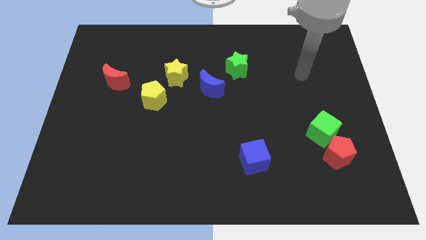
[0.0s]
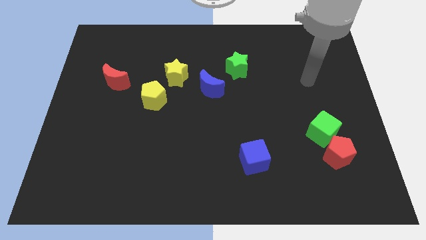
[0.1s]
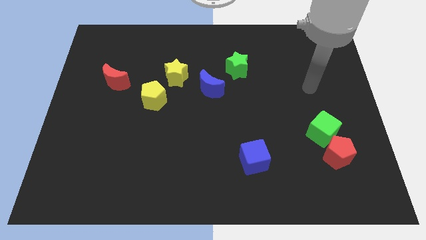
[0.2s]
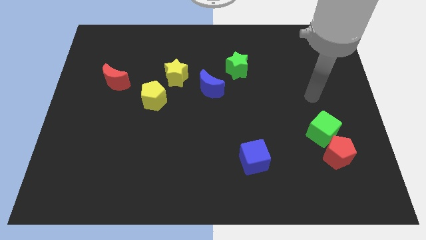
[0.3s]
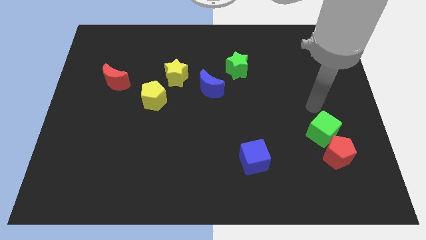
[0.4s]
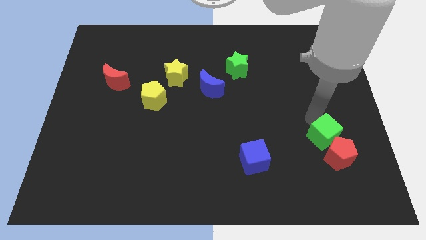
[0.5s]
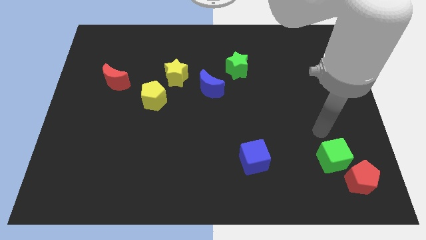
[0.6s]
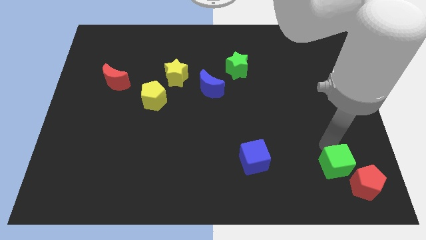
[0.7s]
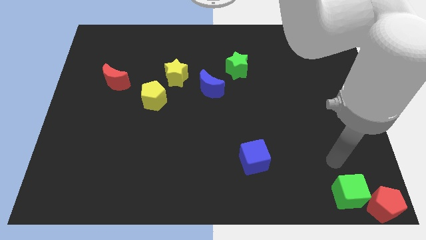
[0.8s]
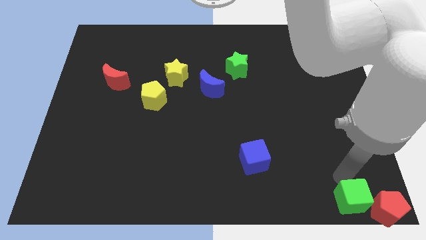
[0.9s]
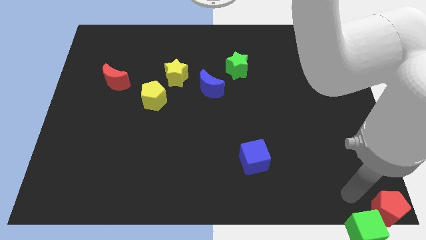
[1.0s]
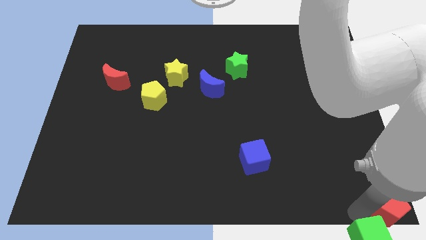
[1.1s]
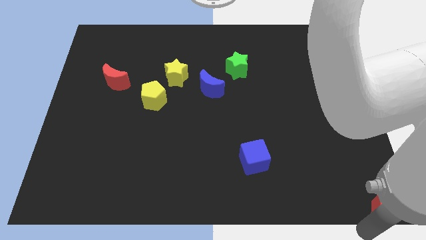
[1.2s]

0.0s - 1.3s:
move the red pentagon away from the green cube

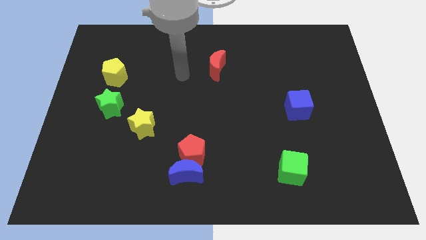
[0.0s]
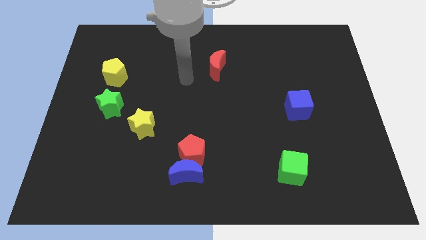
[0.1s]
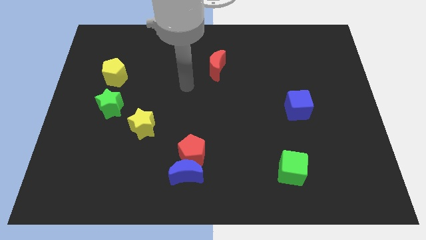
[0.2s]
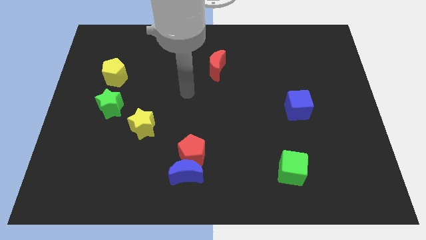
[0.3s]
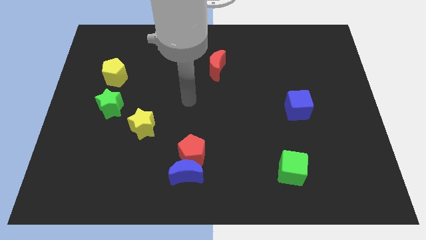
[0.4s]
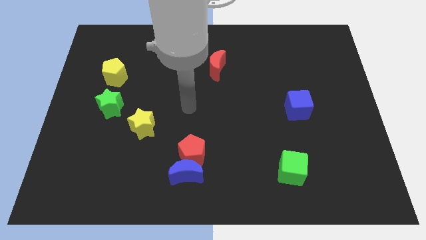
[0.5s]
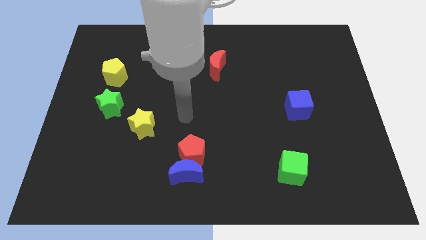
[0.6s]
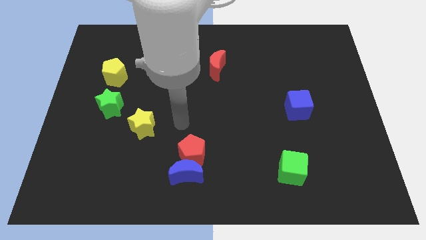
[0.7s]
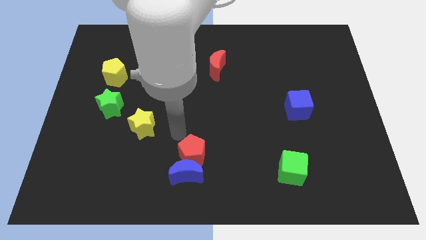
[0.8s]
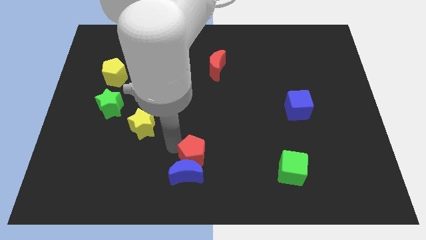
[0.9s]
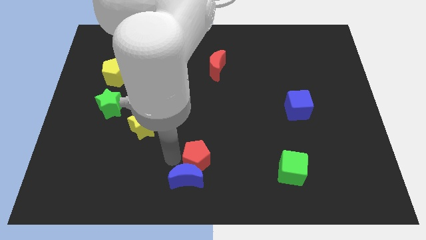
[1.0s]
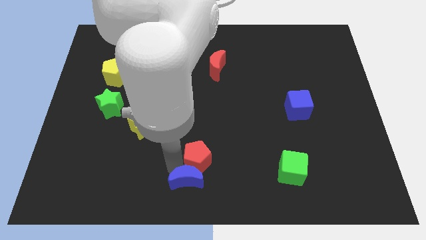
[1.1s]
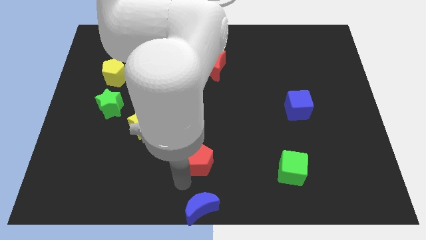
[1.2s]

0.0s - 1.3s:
pull the red pentagon apart from the blue moon

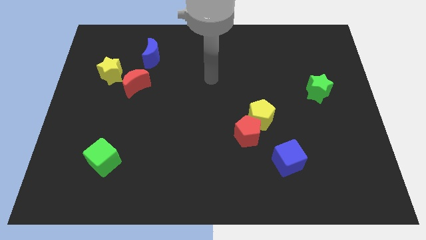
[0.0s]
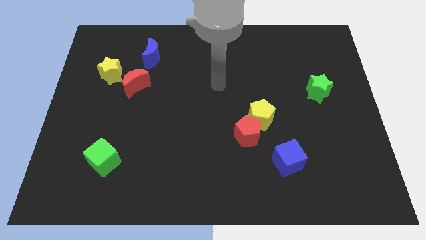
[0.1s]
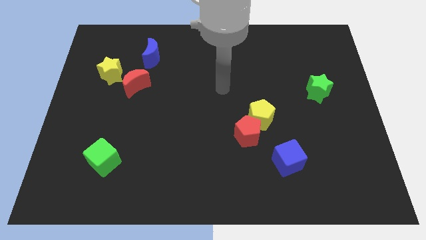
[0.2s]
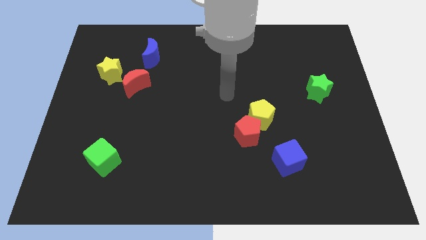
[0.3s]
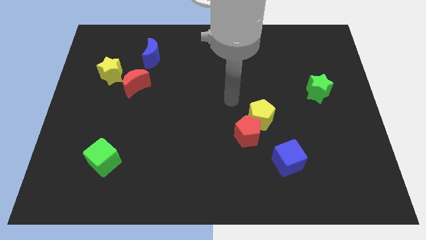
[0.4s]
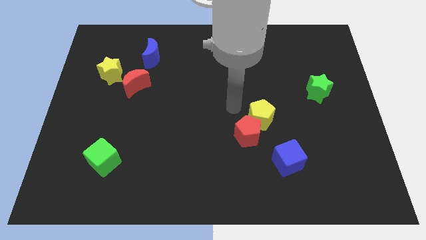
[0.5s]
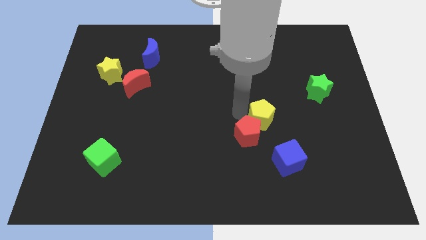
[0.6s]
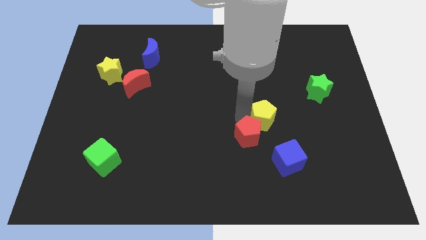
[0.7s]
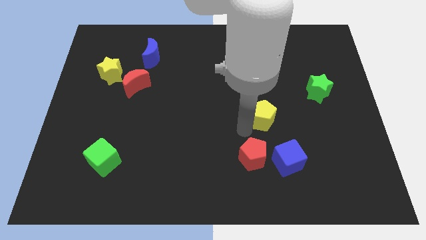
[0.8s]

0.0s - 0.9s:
pull the yellow pentagon apart from the red pentagon

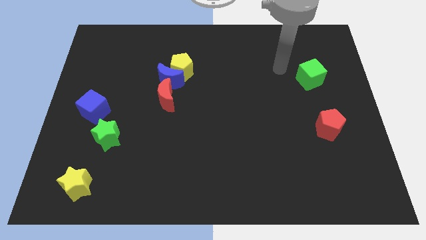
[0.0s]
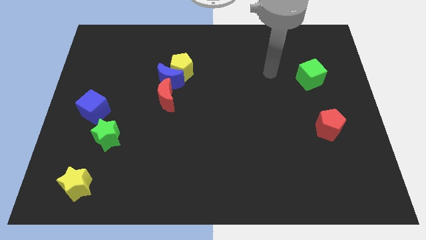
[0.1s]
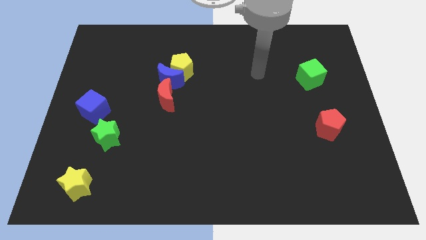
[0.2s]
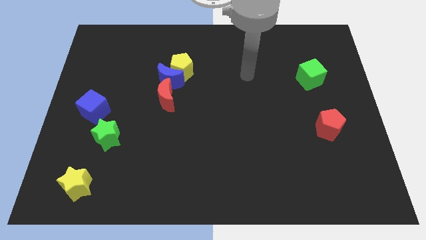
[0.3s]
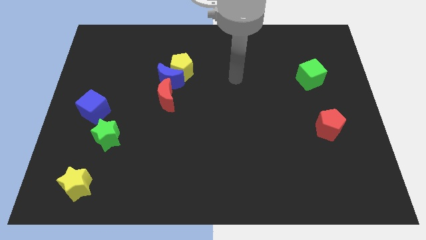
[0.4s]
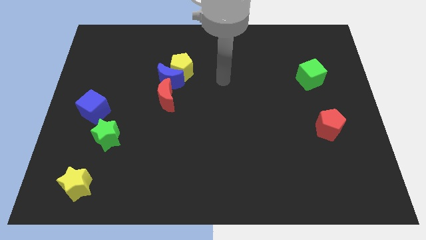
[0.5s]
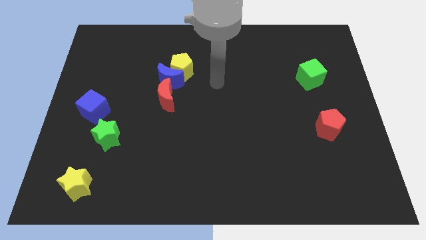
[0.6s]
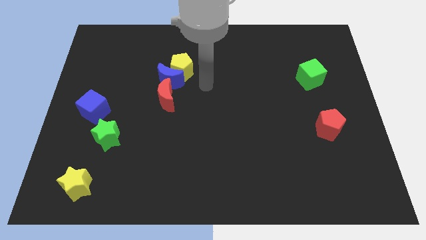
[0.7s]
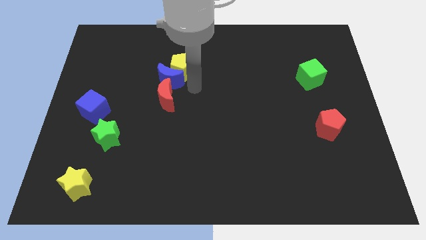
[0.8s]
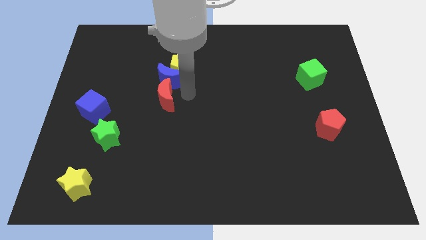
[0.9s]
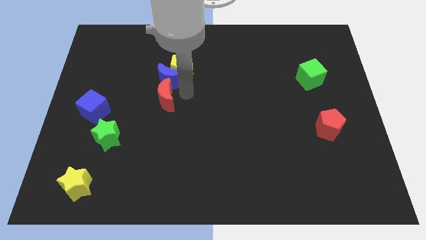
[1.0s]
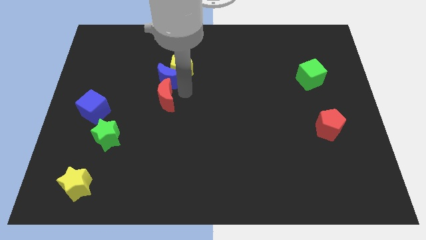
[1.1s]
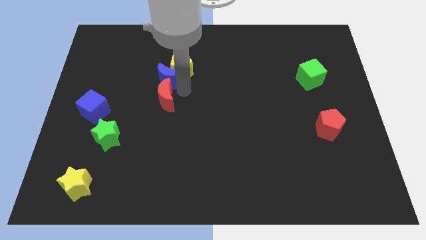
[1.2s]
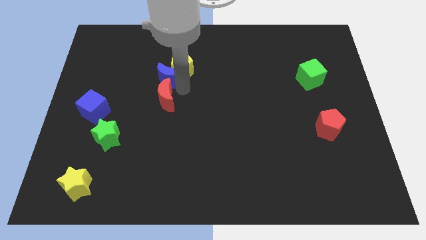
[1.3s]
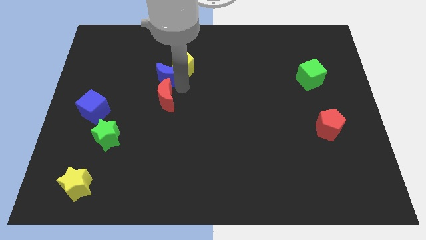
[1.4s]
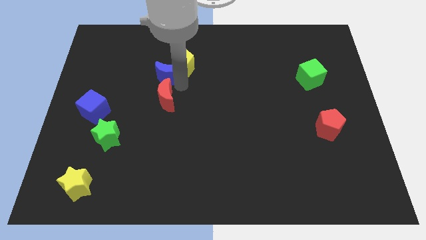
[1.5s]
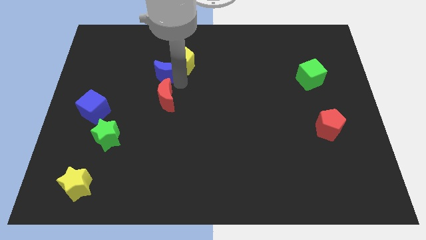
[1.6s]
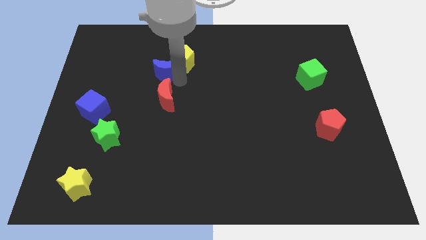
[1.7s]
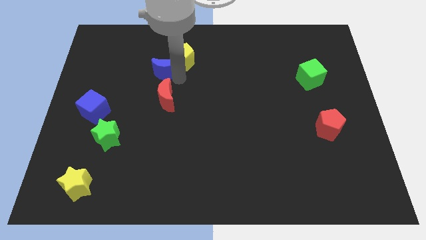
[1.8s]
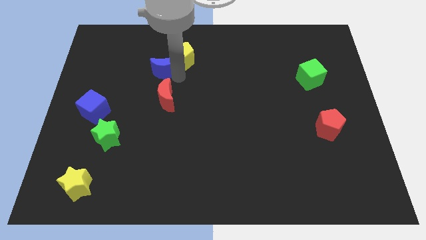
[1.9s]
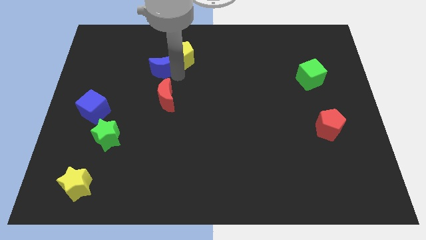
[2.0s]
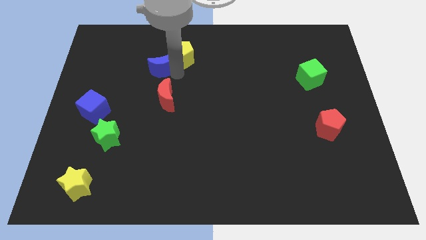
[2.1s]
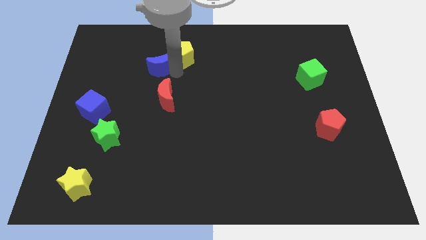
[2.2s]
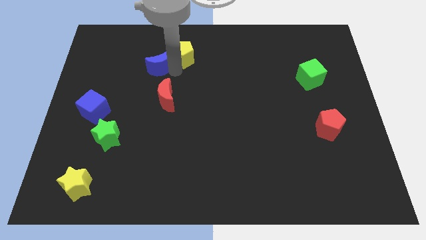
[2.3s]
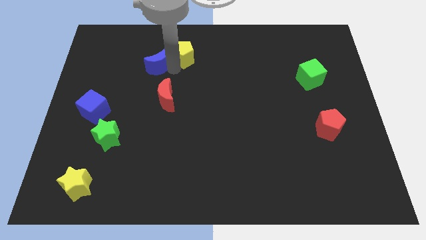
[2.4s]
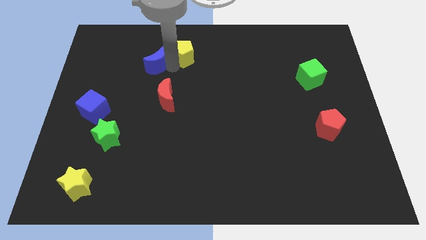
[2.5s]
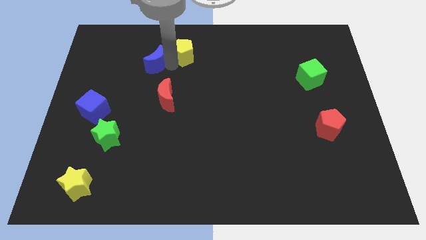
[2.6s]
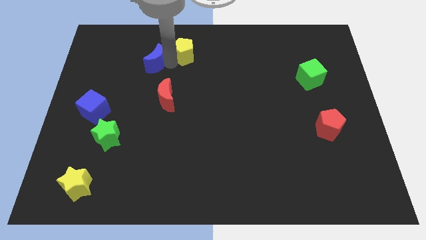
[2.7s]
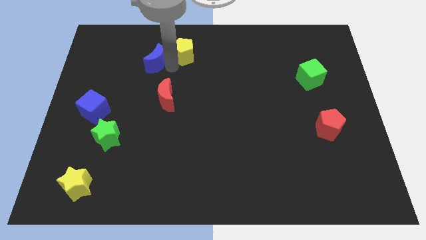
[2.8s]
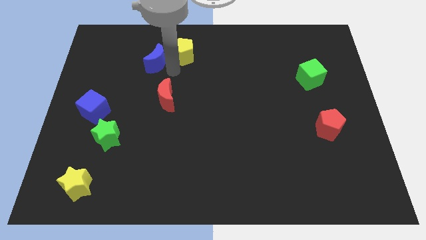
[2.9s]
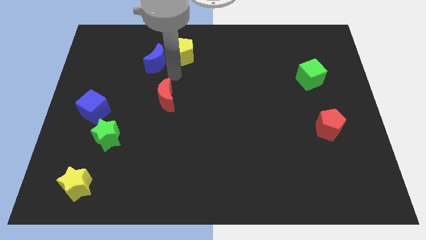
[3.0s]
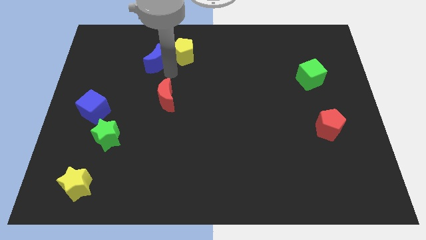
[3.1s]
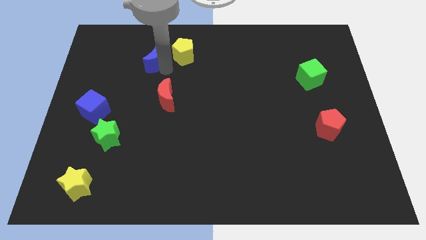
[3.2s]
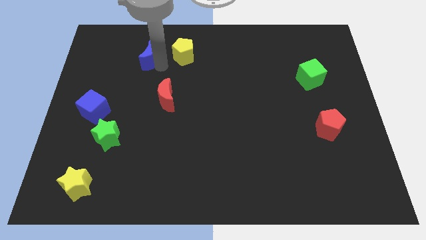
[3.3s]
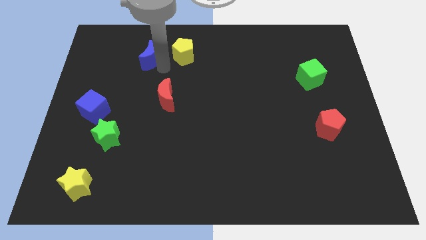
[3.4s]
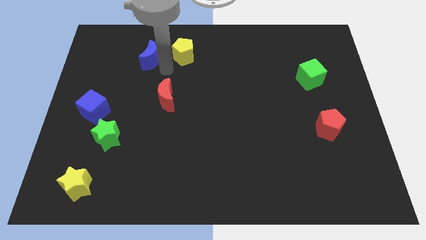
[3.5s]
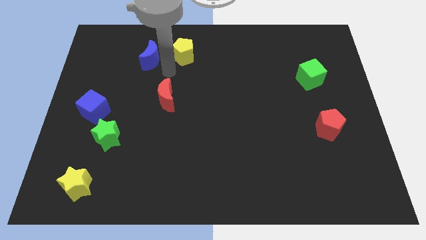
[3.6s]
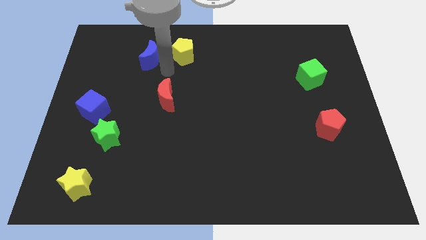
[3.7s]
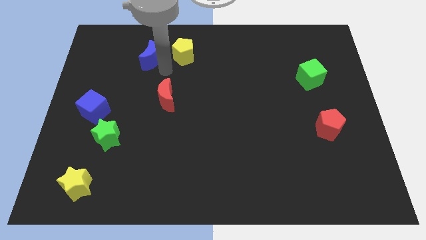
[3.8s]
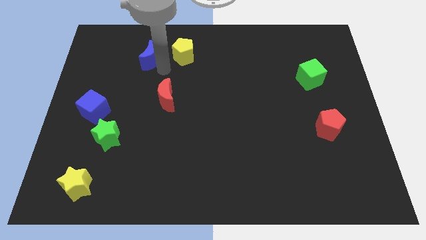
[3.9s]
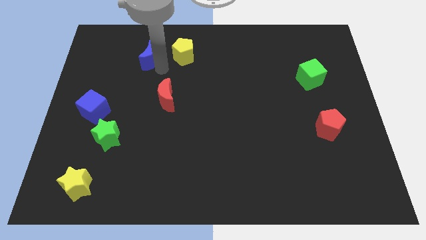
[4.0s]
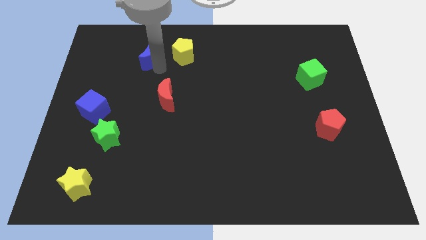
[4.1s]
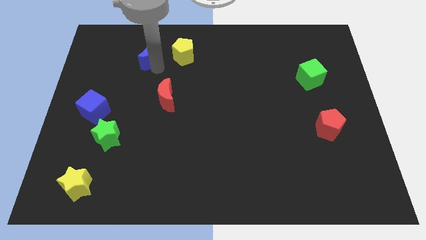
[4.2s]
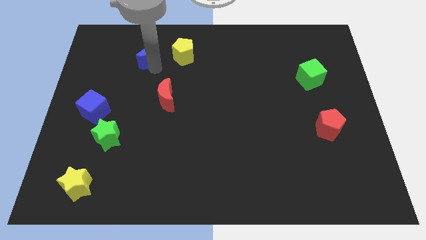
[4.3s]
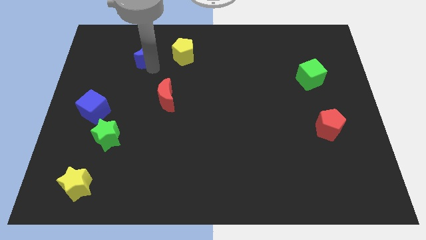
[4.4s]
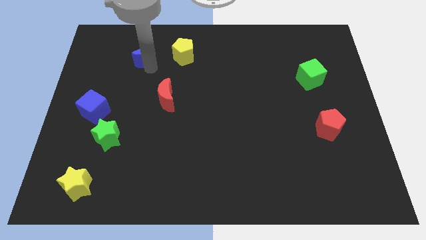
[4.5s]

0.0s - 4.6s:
move the blue moon away from the yellow pentagon and red moon

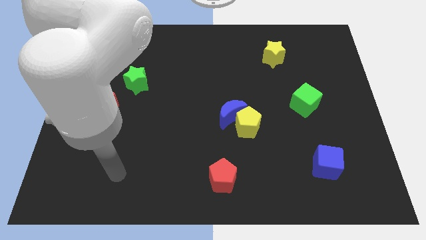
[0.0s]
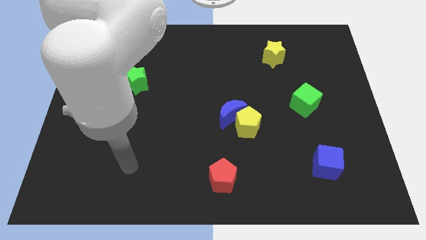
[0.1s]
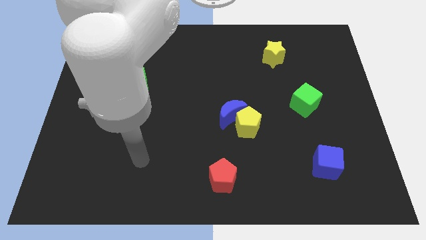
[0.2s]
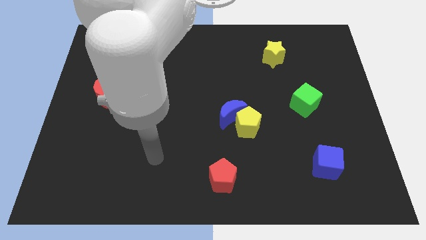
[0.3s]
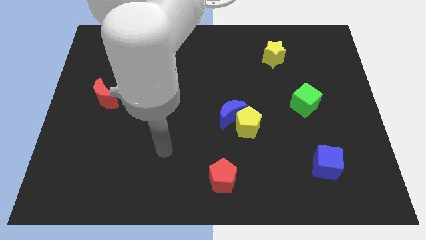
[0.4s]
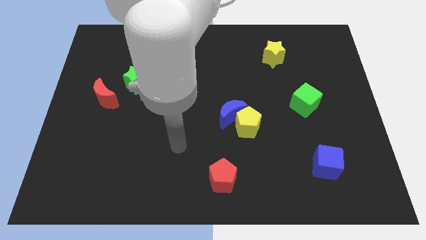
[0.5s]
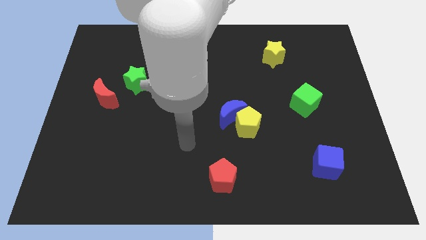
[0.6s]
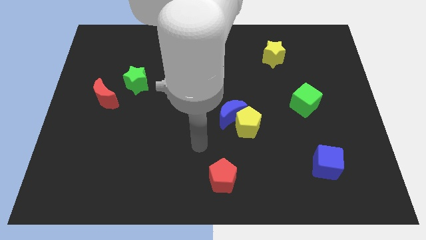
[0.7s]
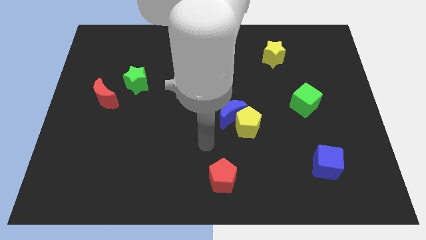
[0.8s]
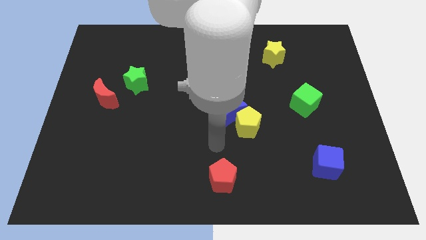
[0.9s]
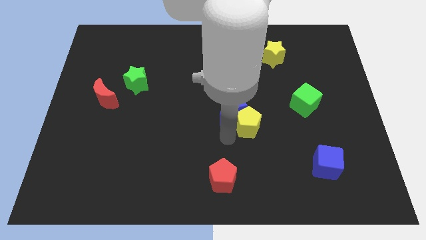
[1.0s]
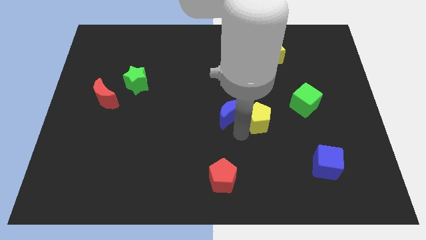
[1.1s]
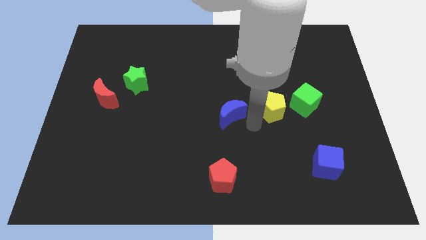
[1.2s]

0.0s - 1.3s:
pull the blue moon apart from the yellow pentagon

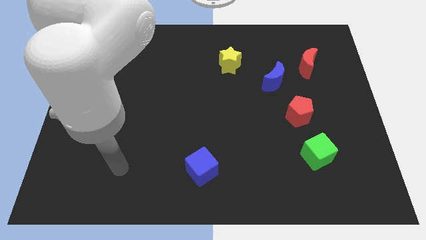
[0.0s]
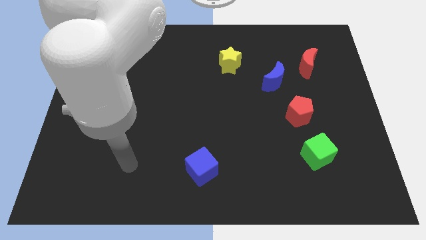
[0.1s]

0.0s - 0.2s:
pull the red moon apart from the blue moon
